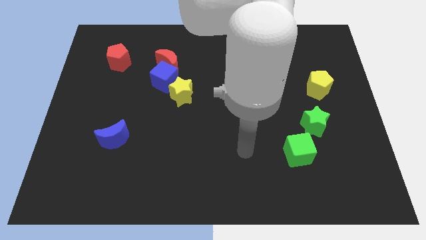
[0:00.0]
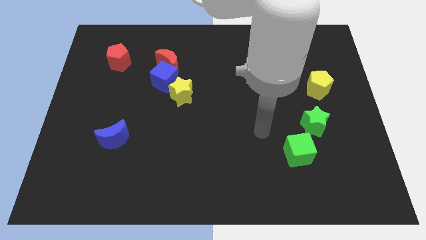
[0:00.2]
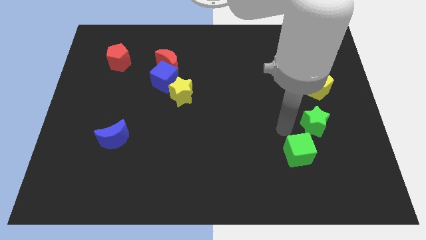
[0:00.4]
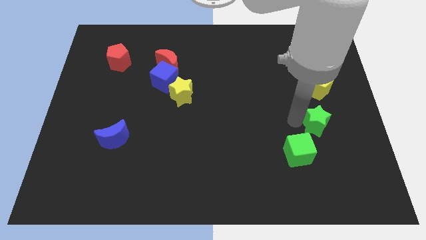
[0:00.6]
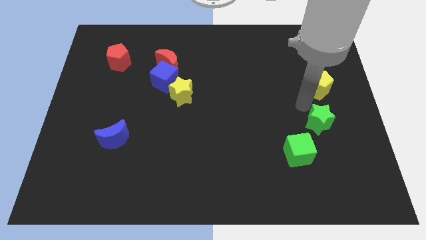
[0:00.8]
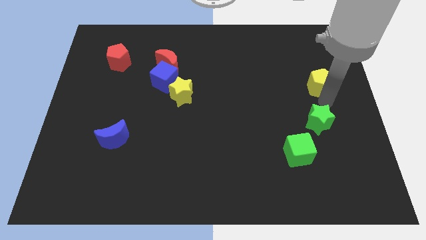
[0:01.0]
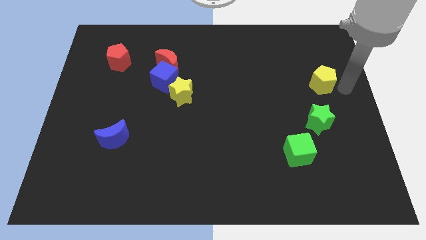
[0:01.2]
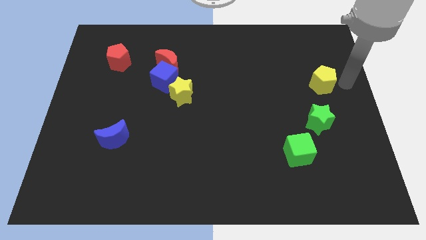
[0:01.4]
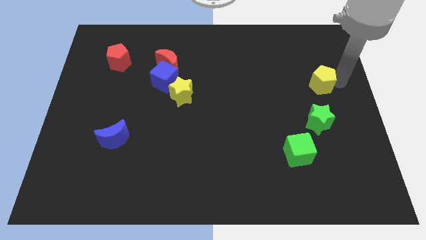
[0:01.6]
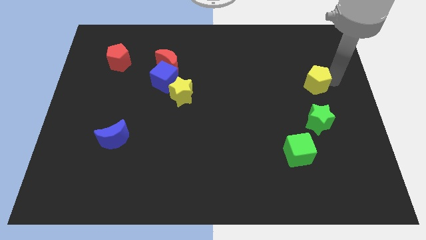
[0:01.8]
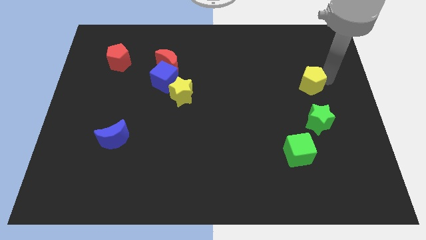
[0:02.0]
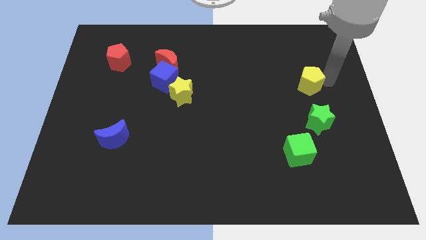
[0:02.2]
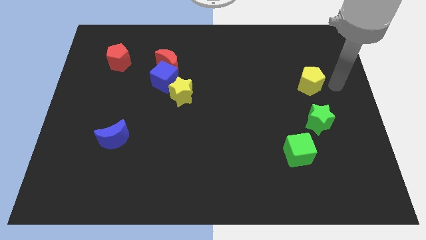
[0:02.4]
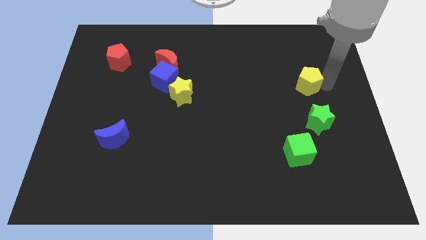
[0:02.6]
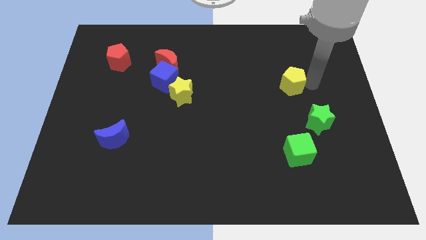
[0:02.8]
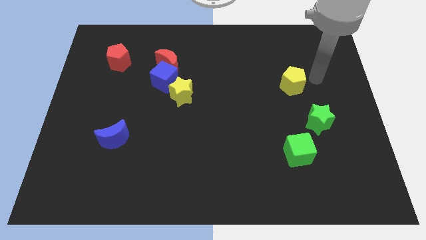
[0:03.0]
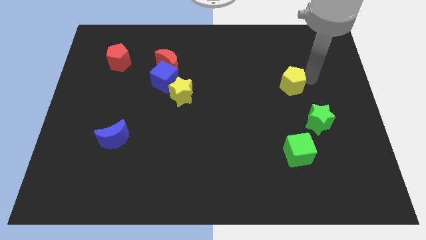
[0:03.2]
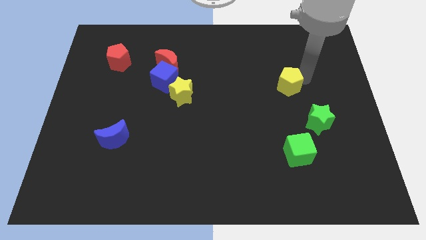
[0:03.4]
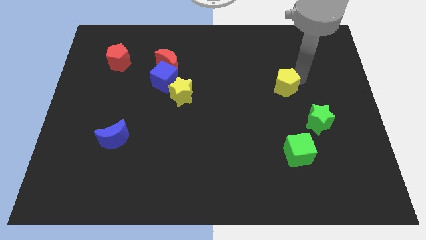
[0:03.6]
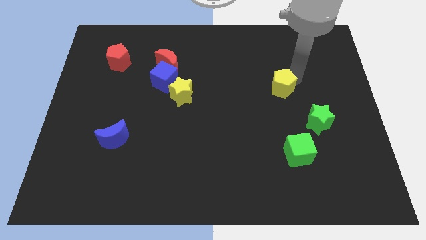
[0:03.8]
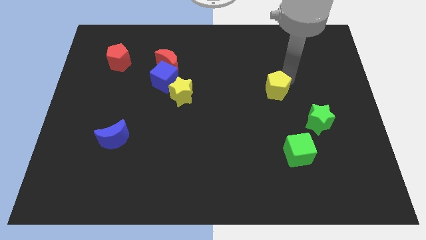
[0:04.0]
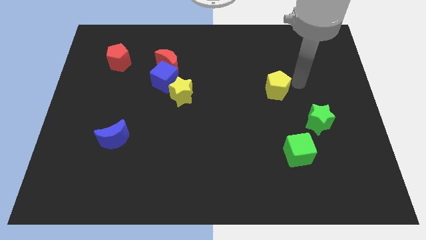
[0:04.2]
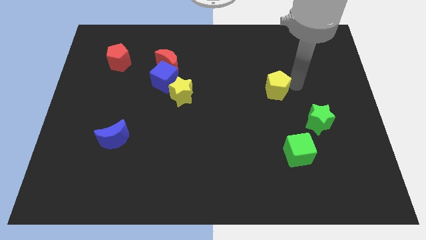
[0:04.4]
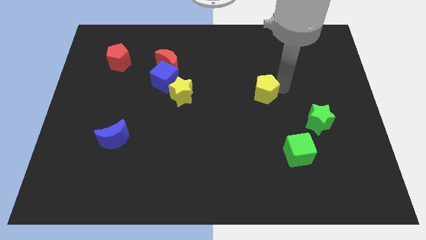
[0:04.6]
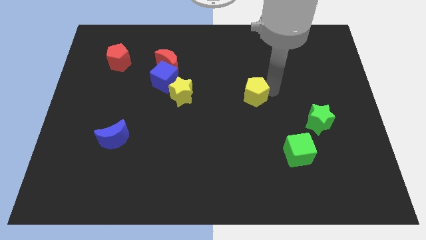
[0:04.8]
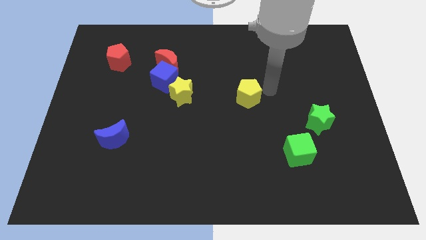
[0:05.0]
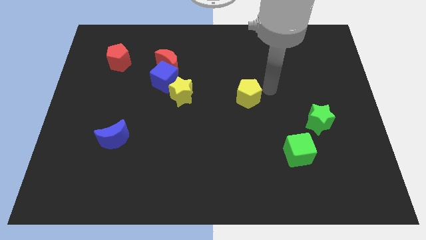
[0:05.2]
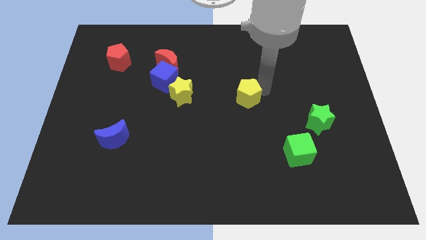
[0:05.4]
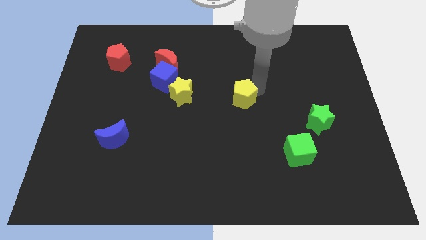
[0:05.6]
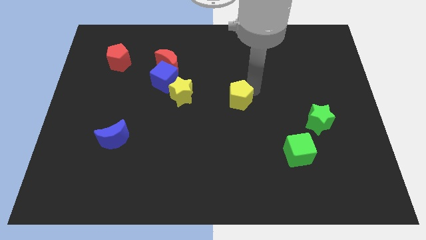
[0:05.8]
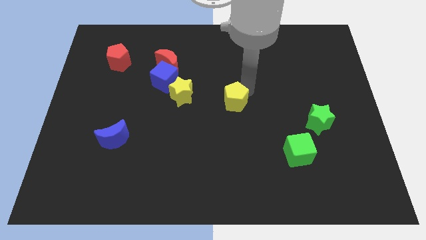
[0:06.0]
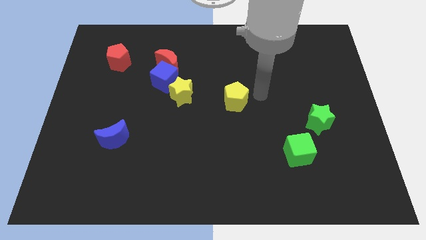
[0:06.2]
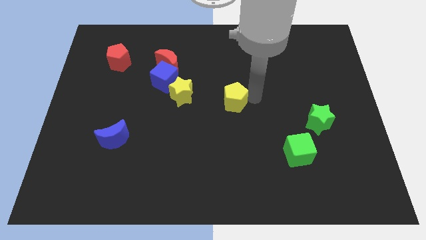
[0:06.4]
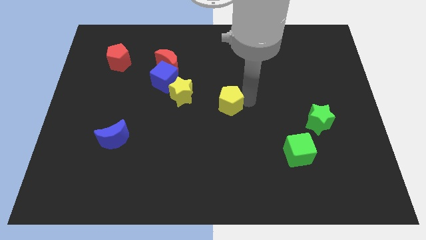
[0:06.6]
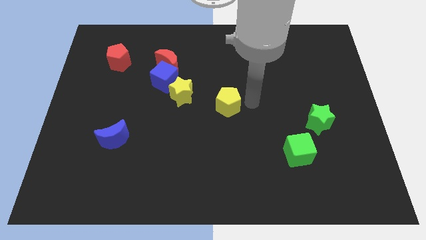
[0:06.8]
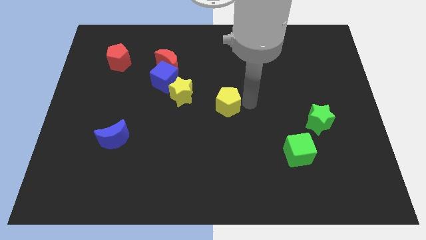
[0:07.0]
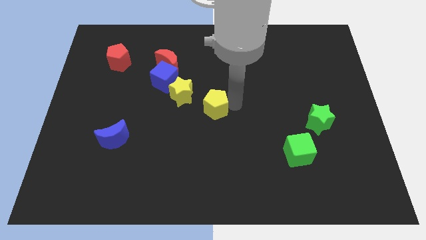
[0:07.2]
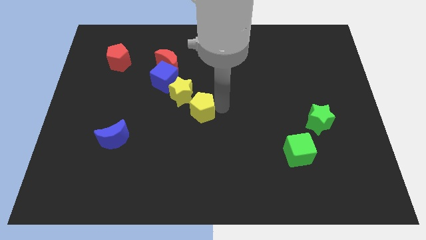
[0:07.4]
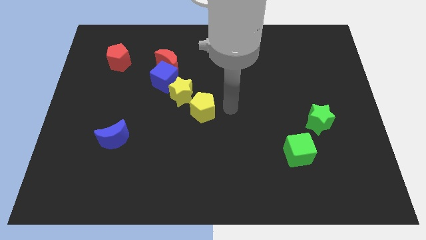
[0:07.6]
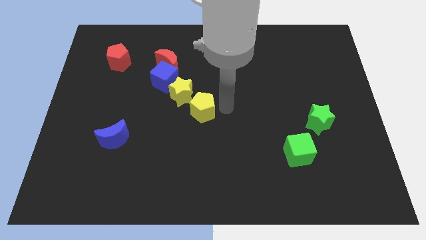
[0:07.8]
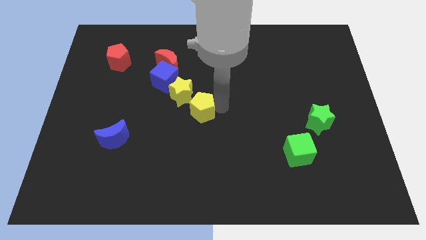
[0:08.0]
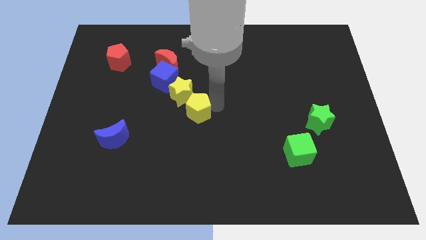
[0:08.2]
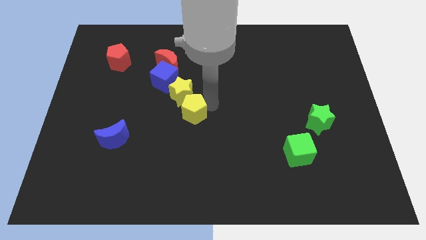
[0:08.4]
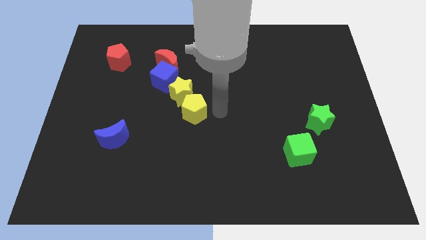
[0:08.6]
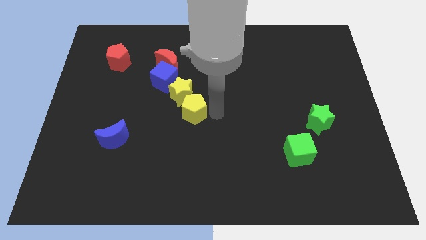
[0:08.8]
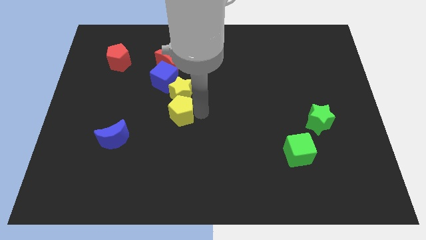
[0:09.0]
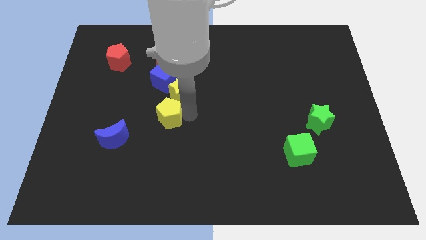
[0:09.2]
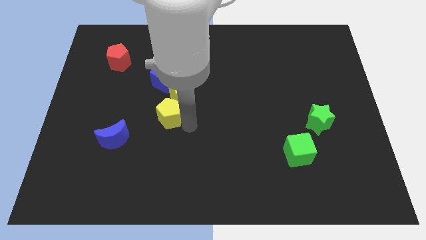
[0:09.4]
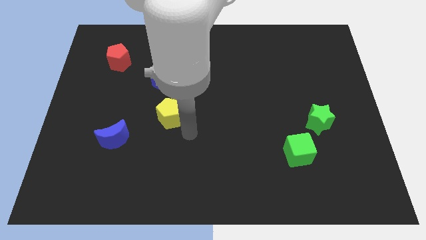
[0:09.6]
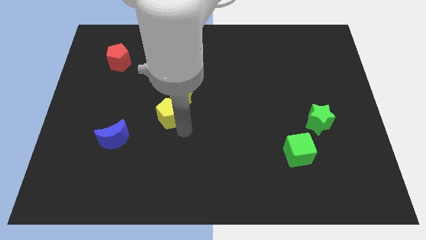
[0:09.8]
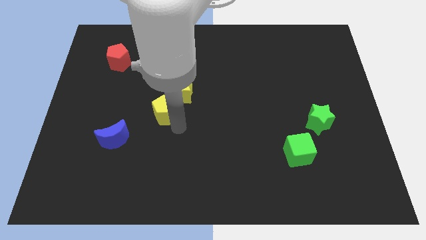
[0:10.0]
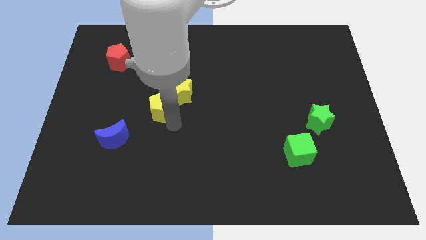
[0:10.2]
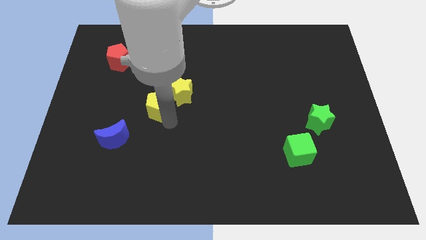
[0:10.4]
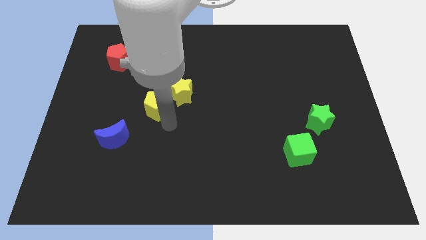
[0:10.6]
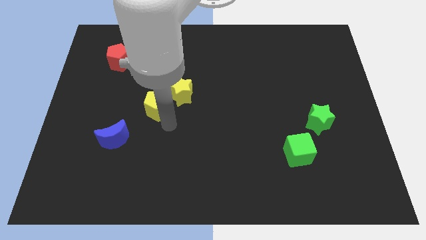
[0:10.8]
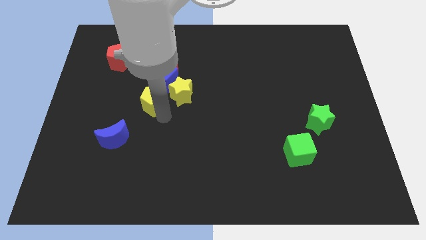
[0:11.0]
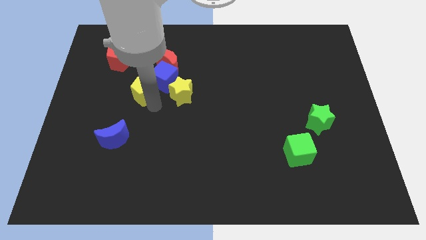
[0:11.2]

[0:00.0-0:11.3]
push the yellow pentagon to the bottom left of the red moon

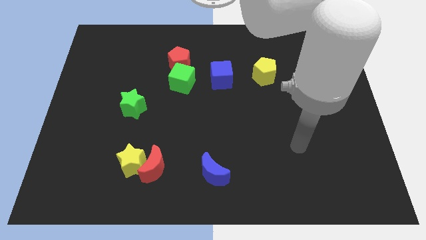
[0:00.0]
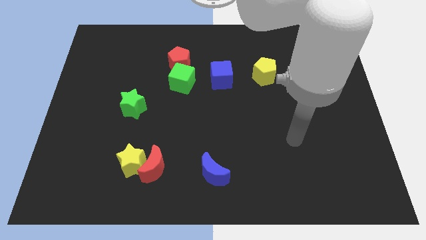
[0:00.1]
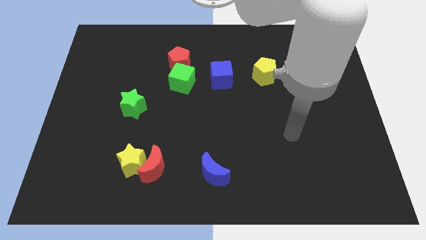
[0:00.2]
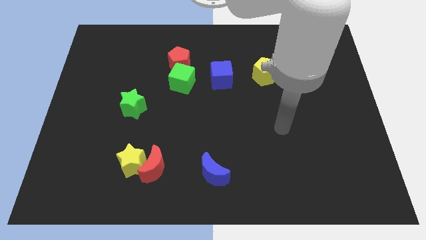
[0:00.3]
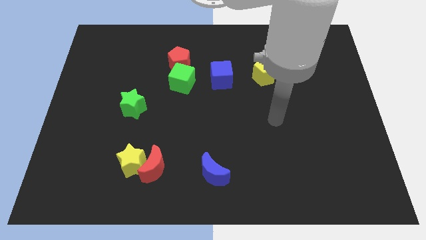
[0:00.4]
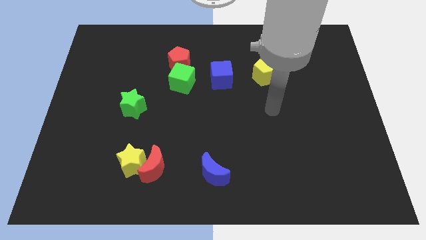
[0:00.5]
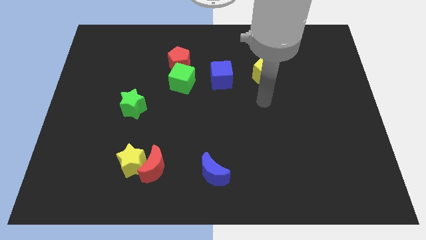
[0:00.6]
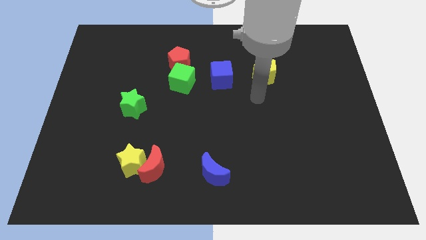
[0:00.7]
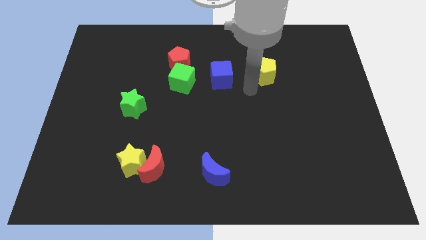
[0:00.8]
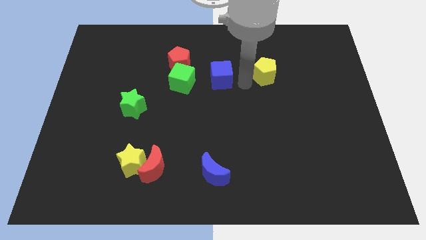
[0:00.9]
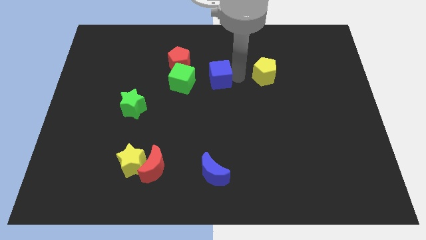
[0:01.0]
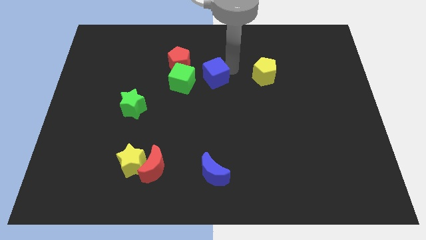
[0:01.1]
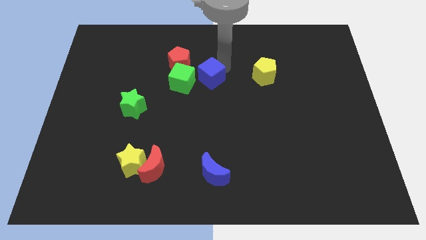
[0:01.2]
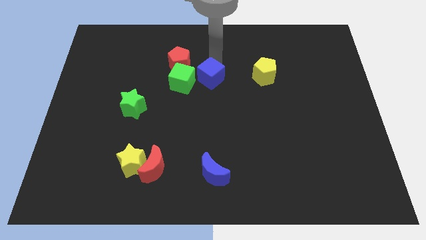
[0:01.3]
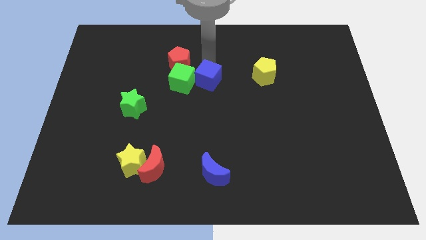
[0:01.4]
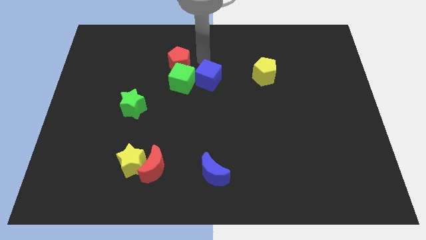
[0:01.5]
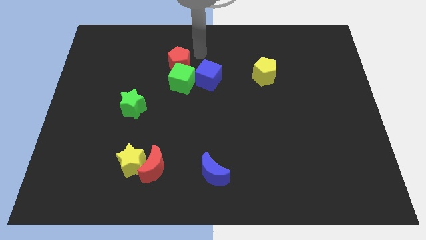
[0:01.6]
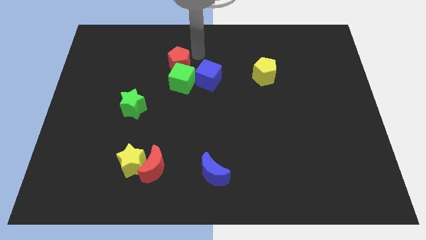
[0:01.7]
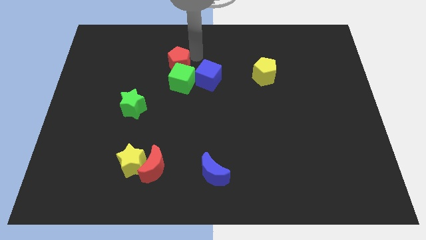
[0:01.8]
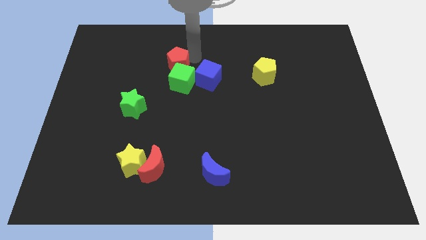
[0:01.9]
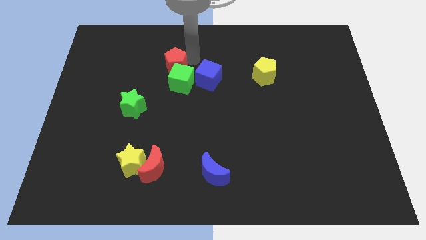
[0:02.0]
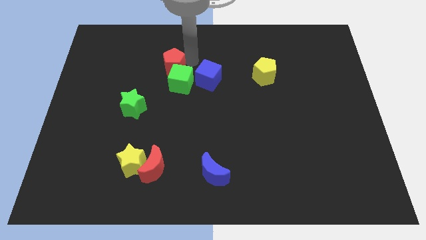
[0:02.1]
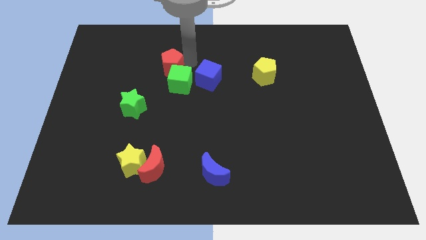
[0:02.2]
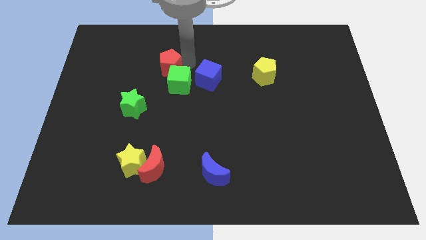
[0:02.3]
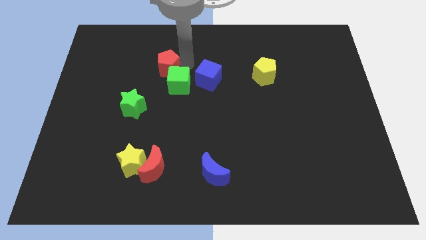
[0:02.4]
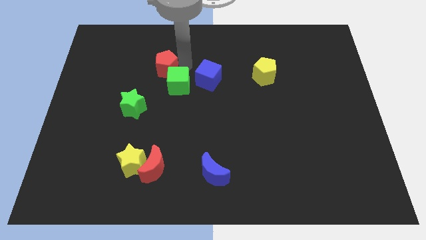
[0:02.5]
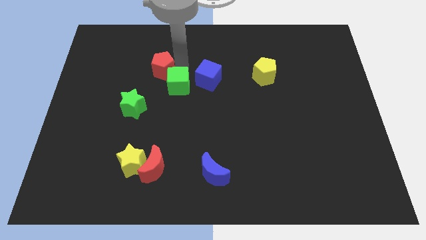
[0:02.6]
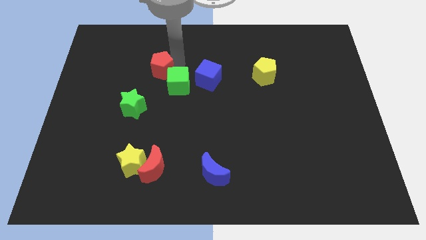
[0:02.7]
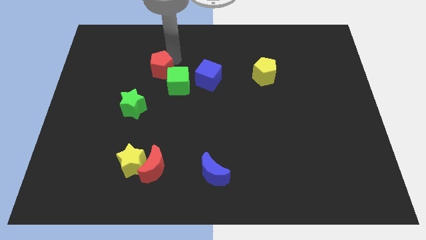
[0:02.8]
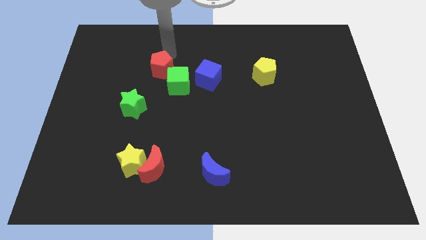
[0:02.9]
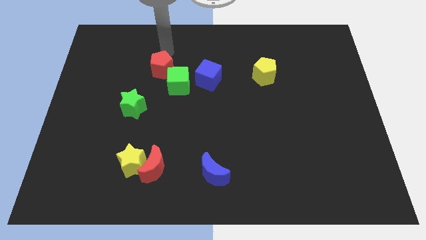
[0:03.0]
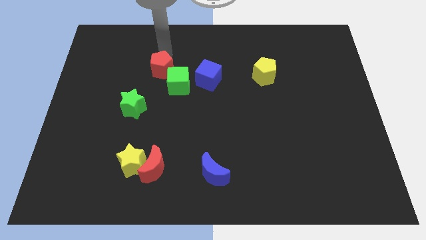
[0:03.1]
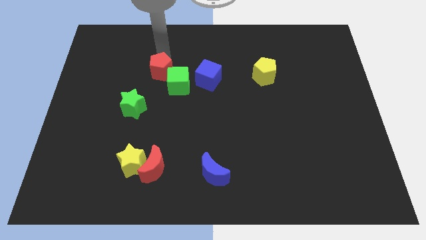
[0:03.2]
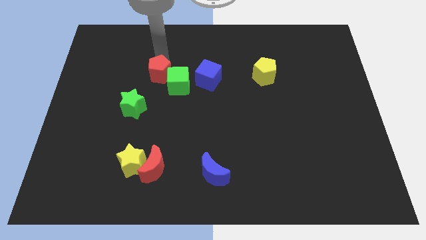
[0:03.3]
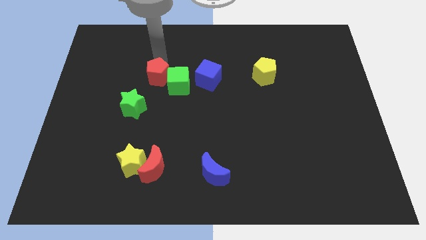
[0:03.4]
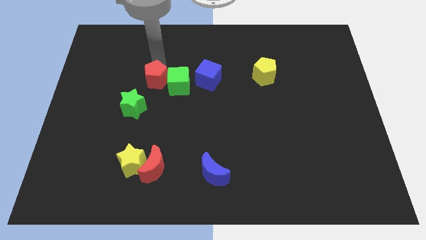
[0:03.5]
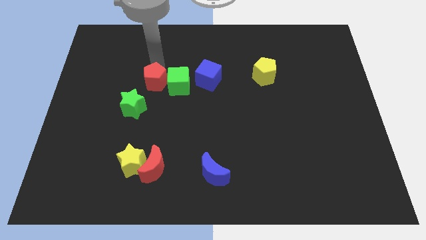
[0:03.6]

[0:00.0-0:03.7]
push the red pentagon to the bottom left of the green cube
